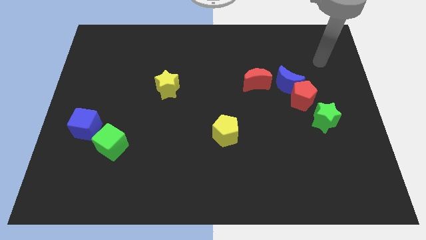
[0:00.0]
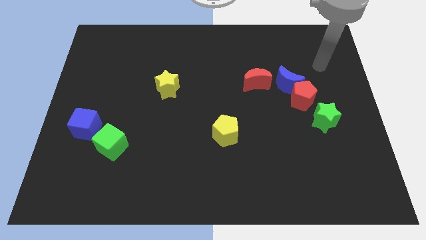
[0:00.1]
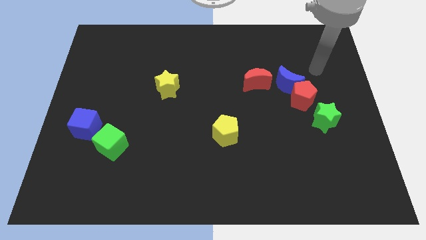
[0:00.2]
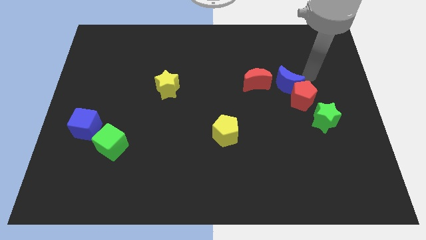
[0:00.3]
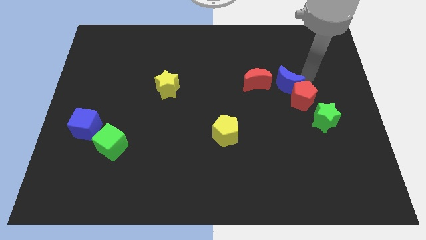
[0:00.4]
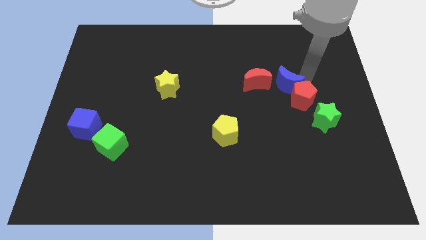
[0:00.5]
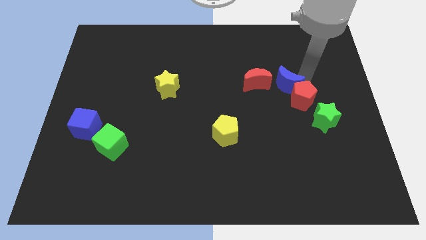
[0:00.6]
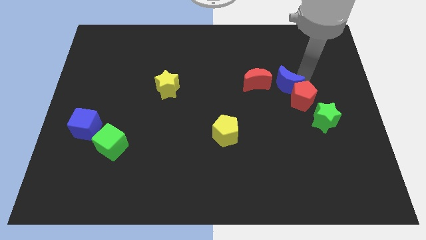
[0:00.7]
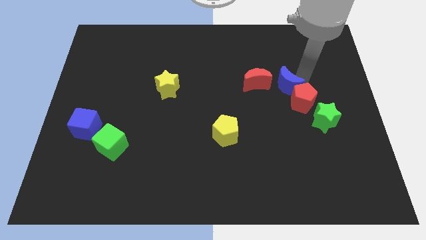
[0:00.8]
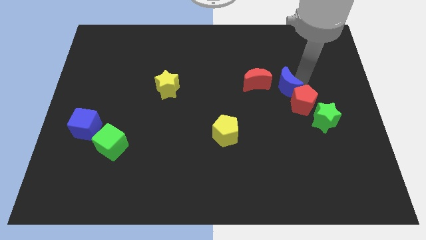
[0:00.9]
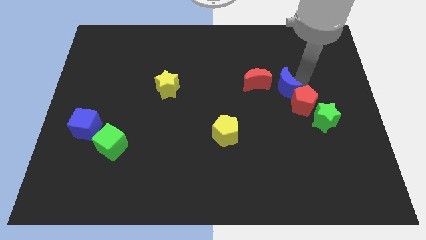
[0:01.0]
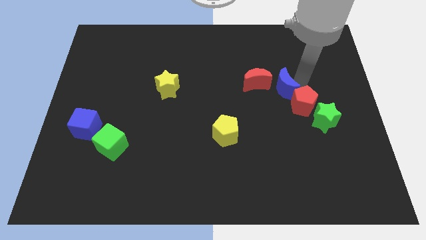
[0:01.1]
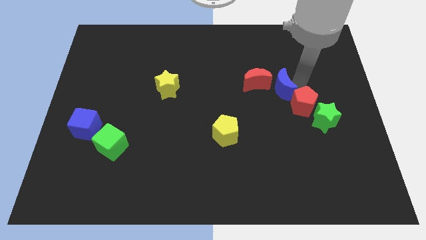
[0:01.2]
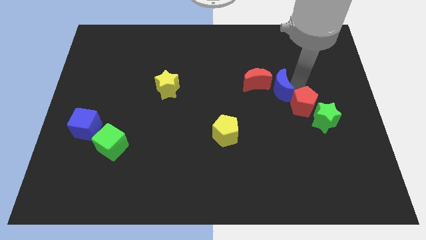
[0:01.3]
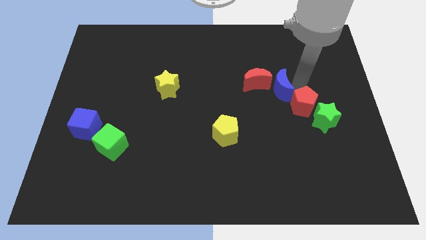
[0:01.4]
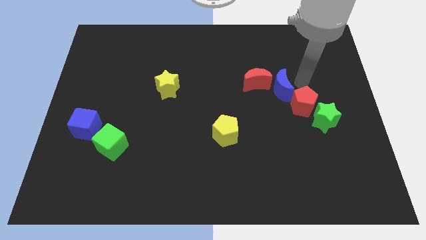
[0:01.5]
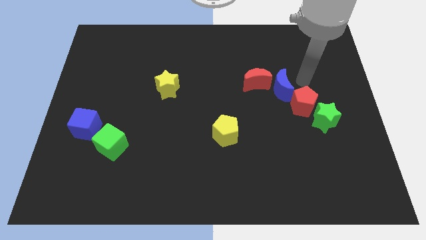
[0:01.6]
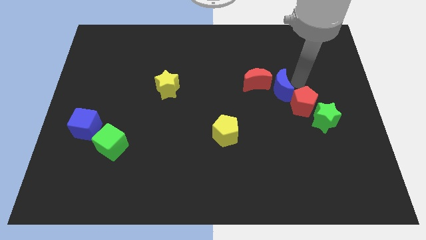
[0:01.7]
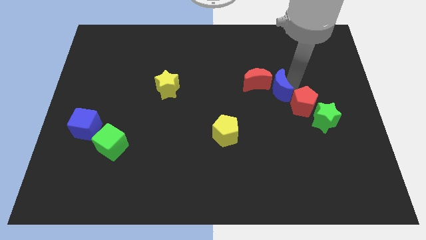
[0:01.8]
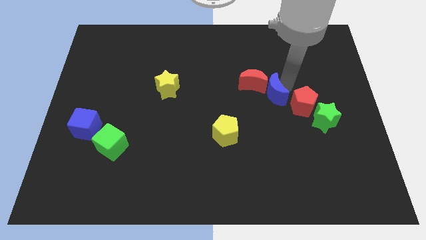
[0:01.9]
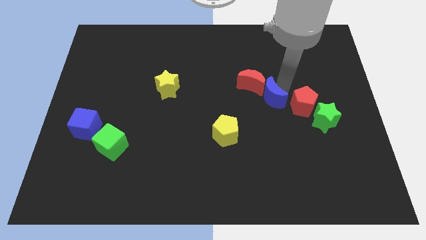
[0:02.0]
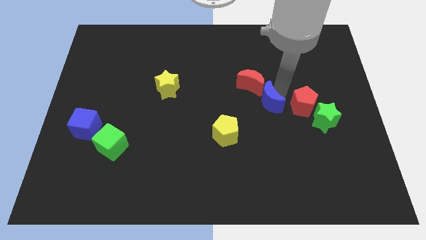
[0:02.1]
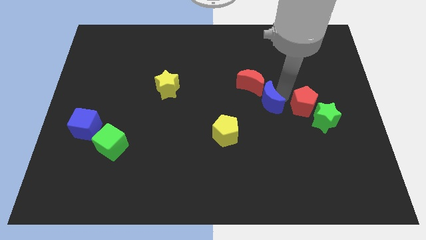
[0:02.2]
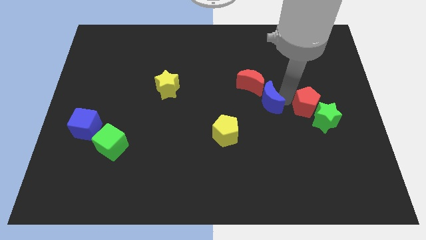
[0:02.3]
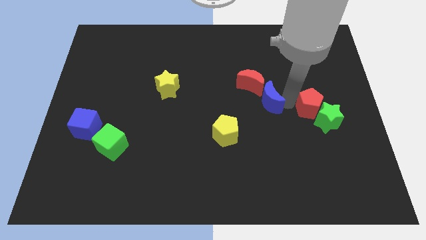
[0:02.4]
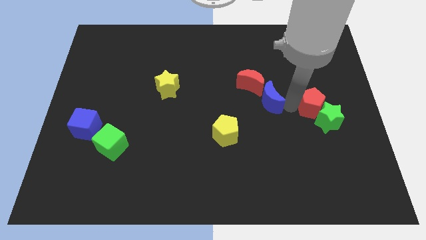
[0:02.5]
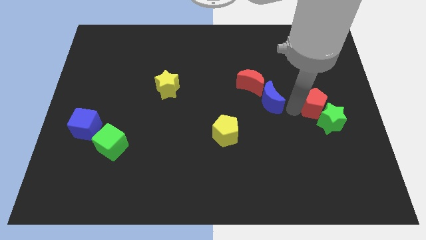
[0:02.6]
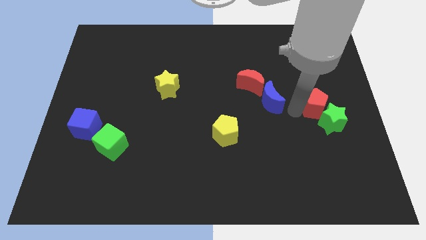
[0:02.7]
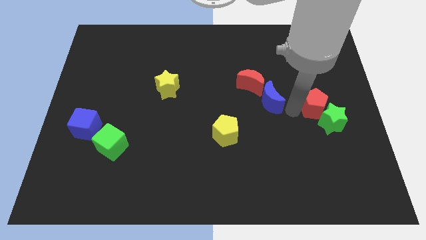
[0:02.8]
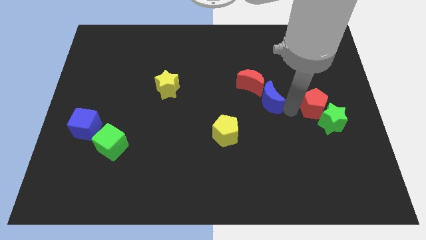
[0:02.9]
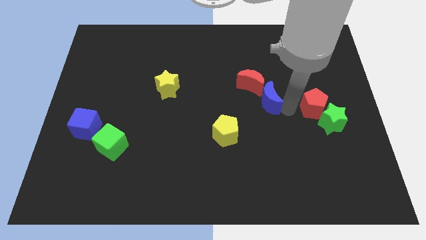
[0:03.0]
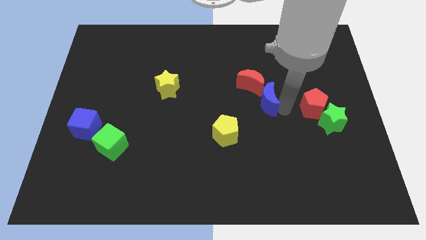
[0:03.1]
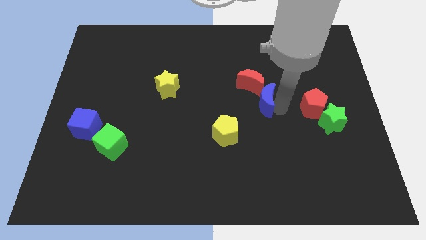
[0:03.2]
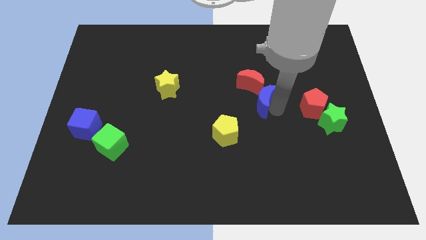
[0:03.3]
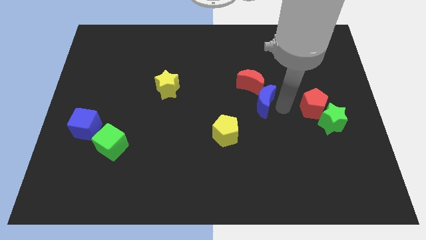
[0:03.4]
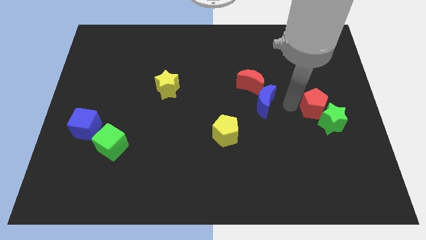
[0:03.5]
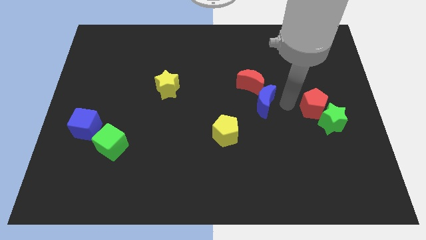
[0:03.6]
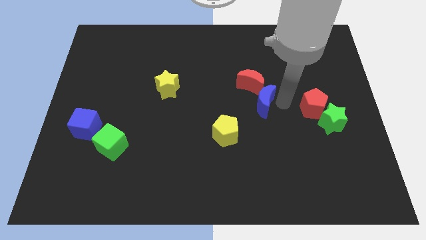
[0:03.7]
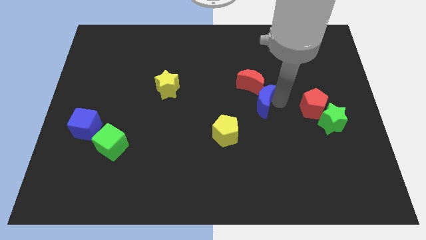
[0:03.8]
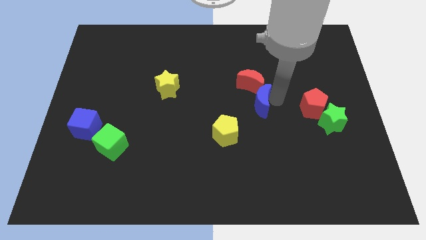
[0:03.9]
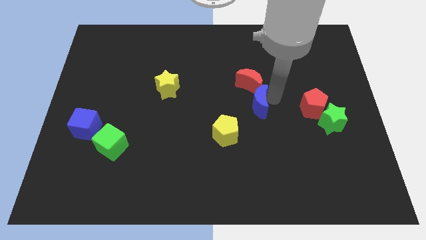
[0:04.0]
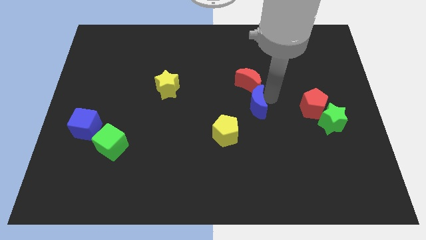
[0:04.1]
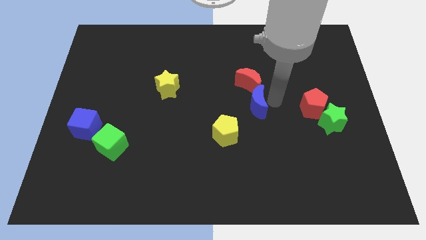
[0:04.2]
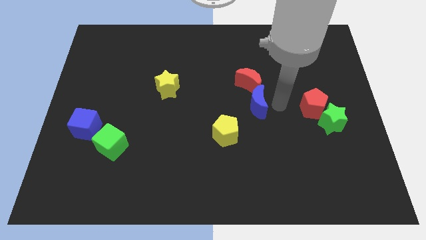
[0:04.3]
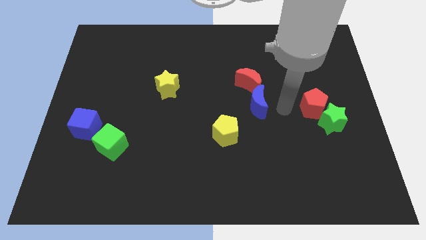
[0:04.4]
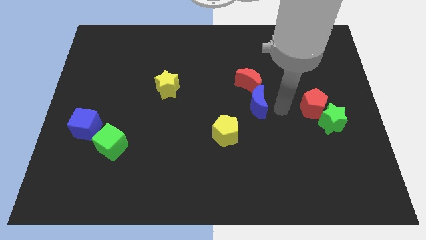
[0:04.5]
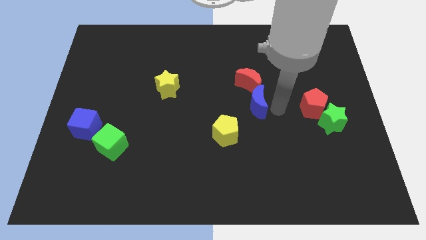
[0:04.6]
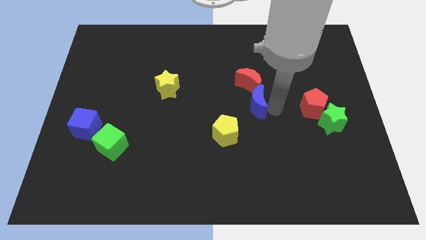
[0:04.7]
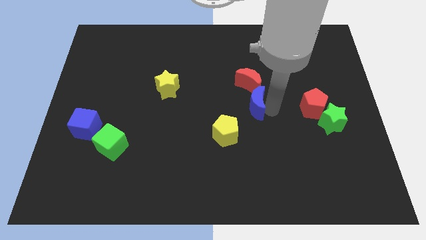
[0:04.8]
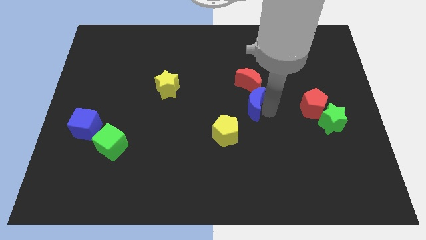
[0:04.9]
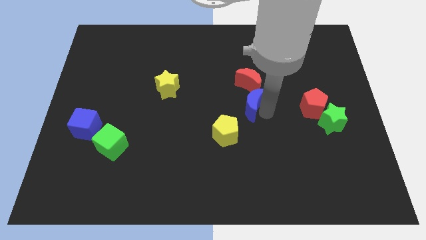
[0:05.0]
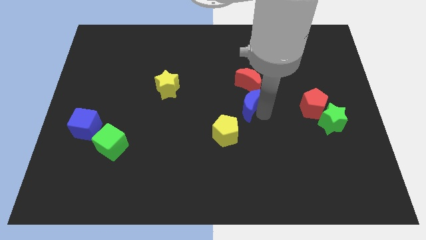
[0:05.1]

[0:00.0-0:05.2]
move the blue moon to the bottom left of the red moon

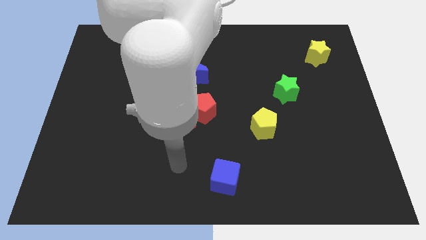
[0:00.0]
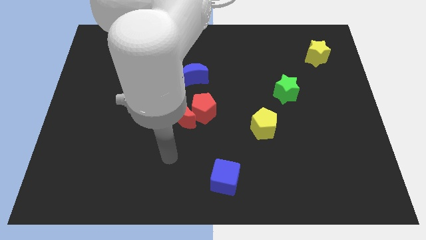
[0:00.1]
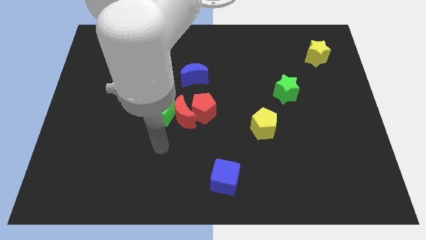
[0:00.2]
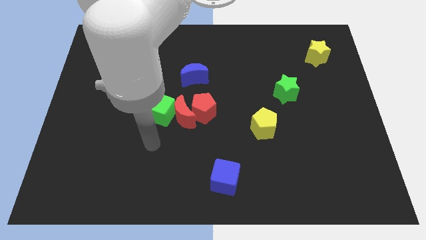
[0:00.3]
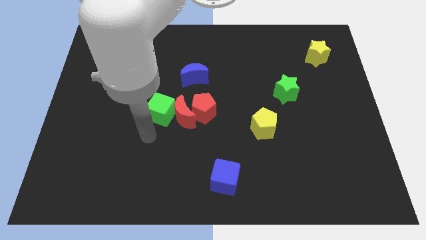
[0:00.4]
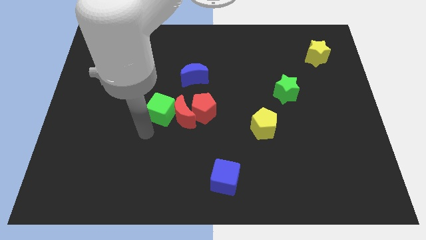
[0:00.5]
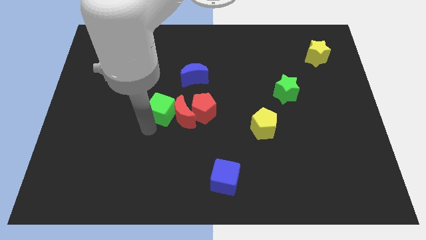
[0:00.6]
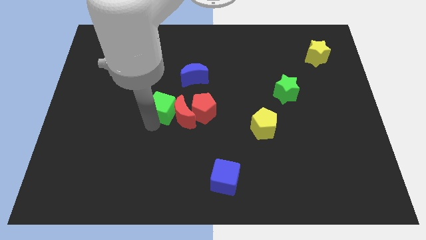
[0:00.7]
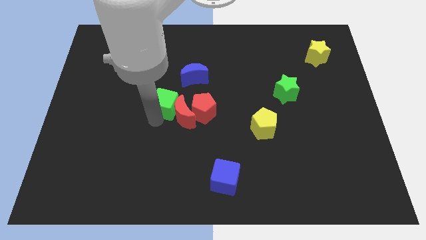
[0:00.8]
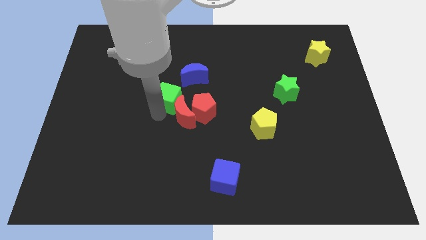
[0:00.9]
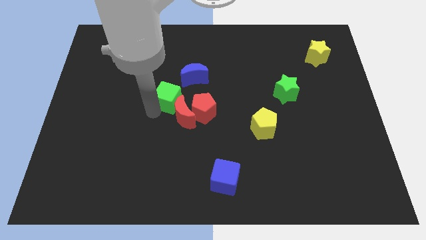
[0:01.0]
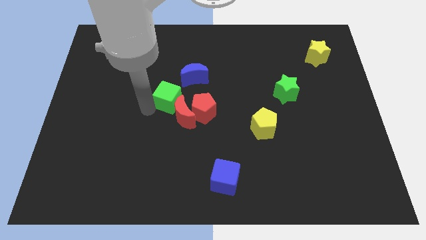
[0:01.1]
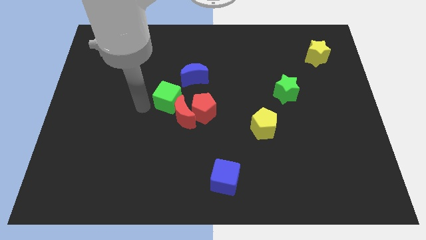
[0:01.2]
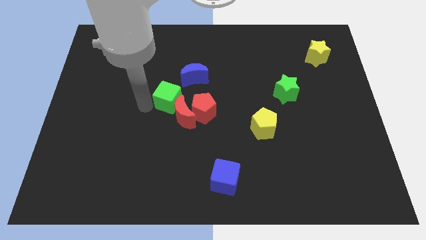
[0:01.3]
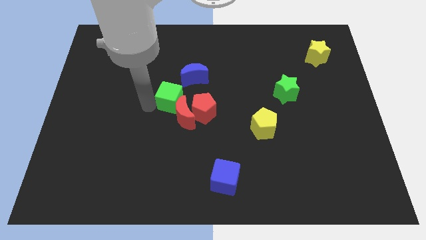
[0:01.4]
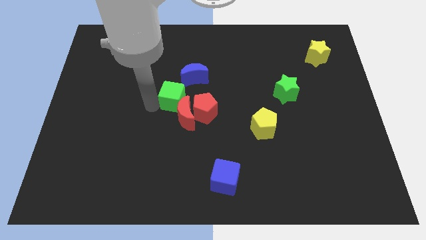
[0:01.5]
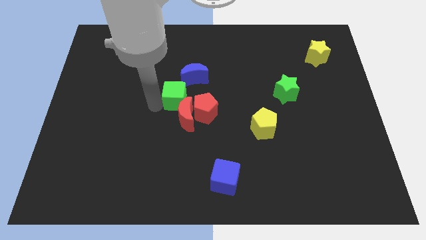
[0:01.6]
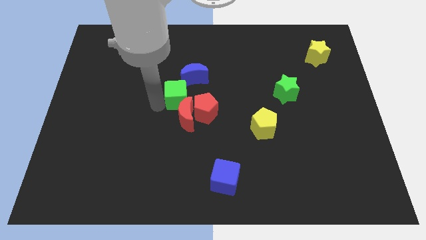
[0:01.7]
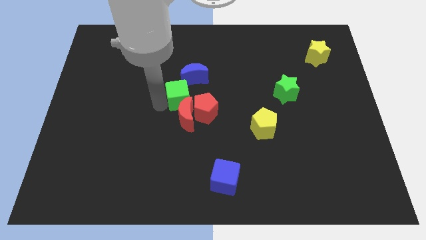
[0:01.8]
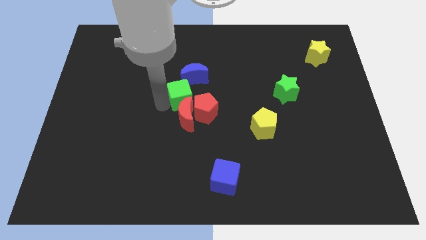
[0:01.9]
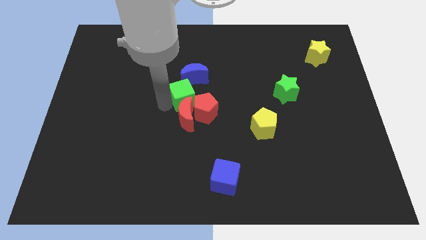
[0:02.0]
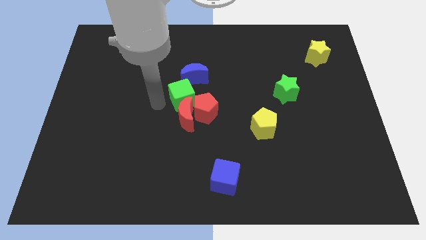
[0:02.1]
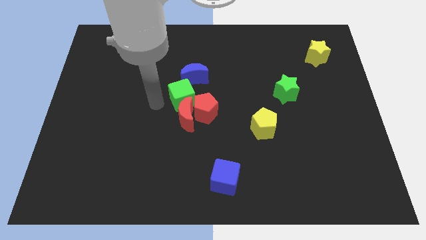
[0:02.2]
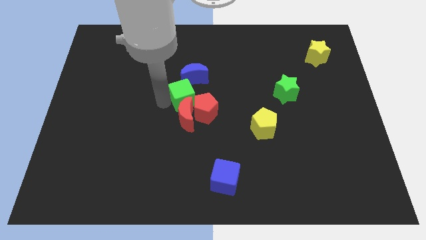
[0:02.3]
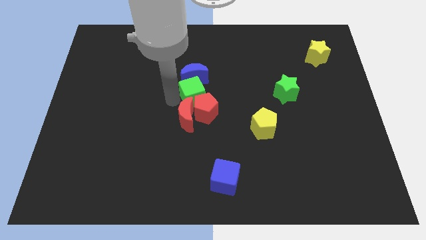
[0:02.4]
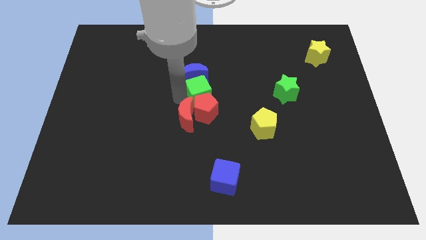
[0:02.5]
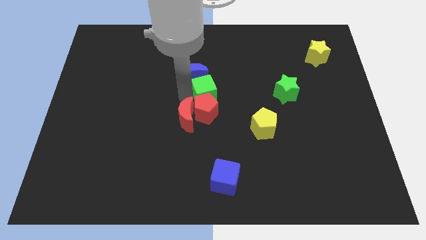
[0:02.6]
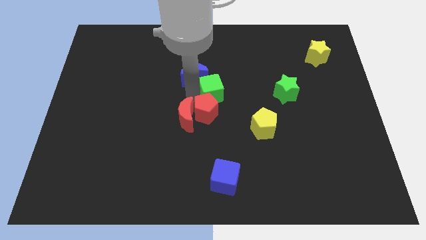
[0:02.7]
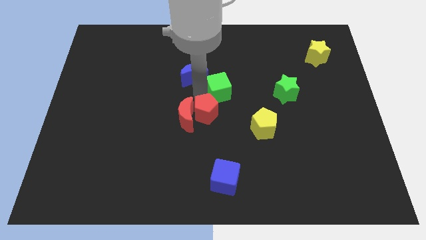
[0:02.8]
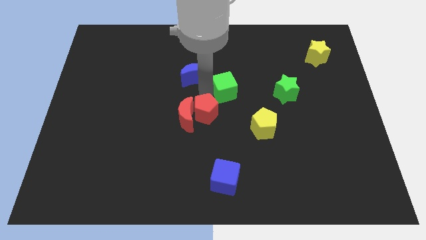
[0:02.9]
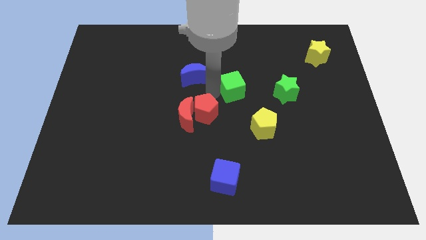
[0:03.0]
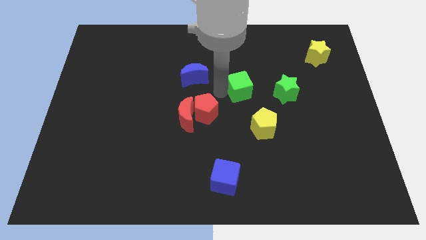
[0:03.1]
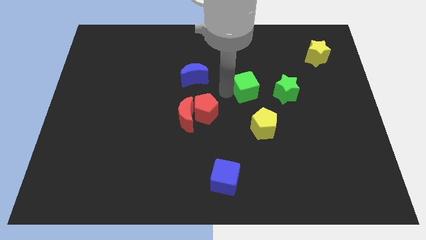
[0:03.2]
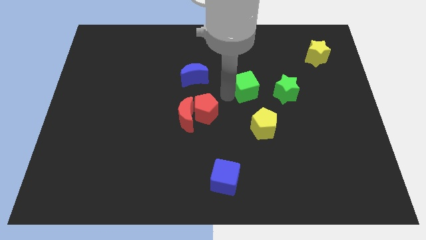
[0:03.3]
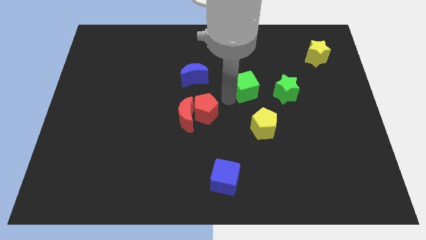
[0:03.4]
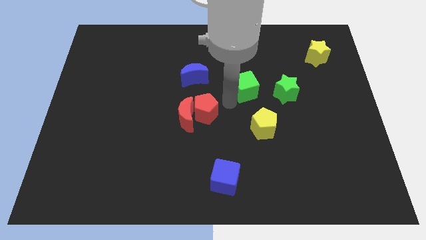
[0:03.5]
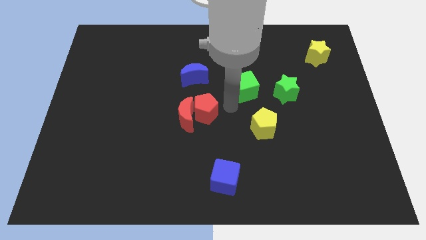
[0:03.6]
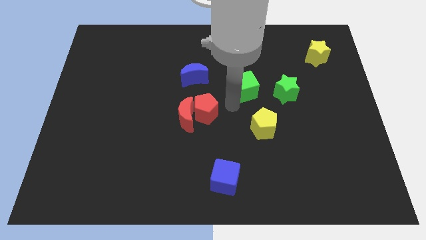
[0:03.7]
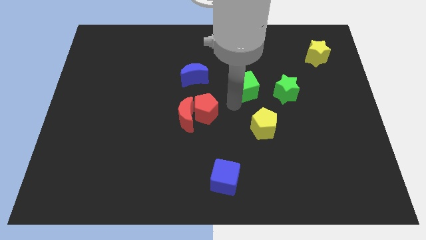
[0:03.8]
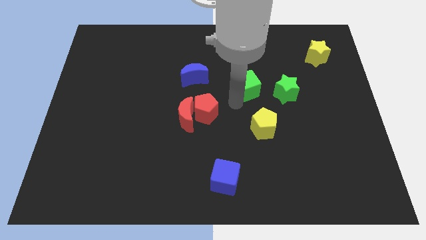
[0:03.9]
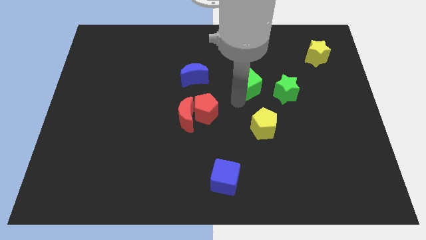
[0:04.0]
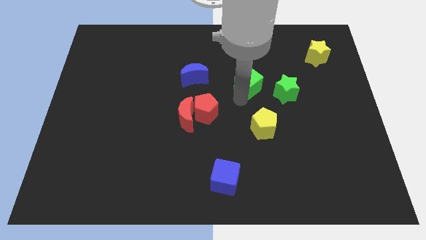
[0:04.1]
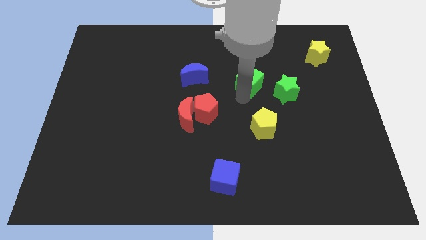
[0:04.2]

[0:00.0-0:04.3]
push the green cube to the top left of the green star
